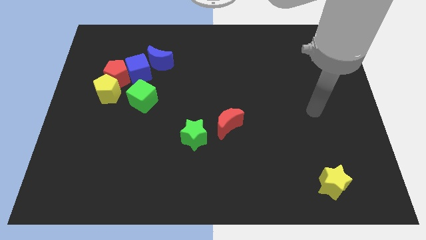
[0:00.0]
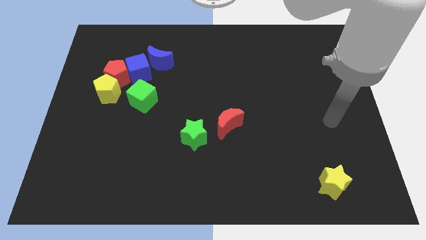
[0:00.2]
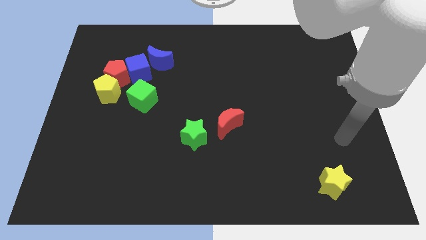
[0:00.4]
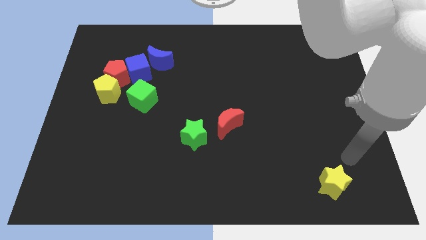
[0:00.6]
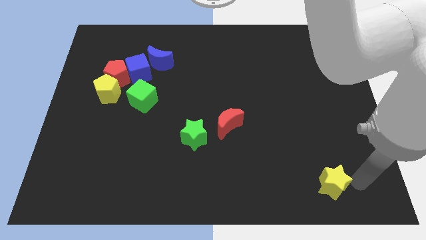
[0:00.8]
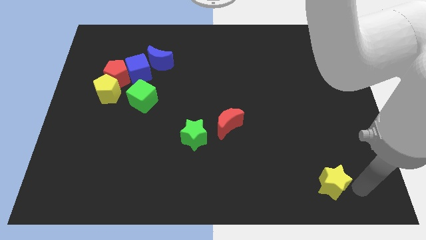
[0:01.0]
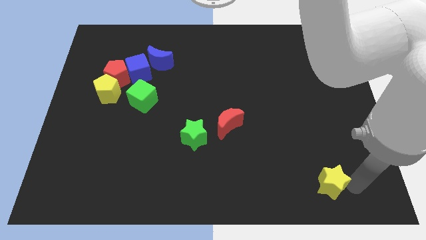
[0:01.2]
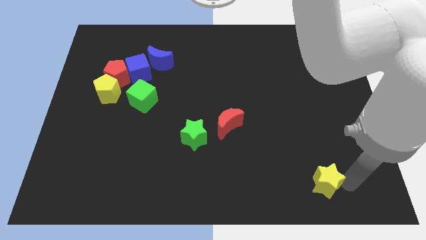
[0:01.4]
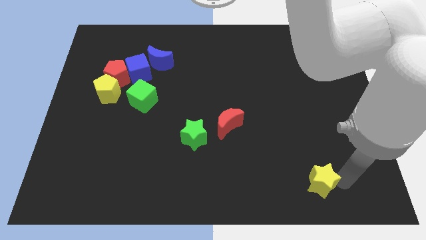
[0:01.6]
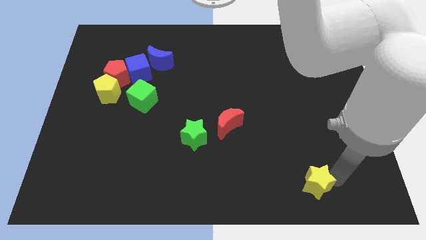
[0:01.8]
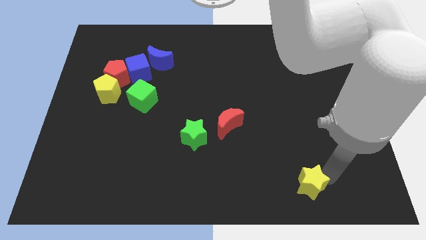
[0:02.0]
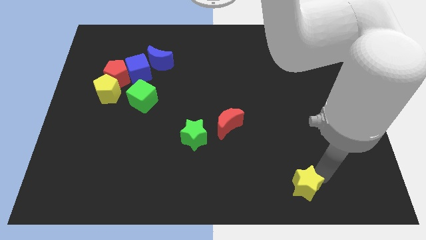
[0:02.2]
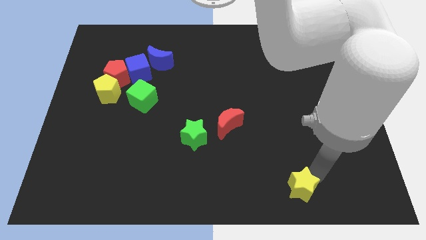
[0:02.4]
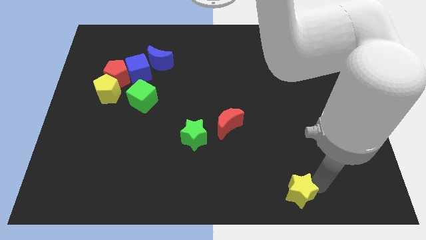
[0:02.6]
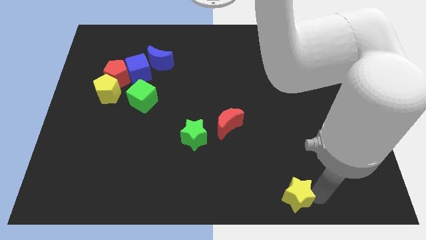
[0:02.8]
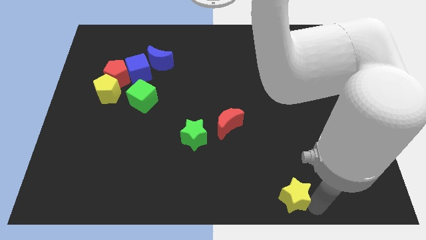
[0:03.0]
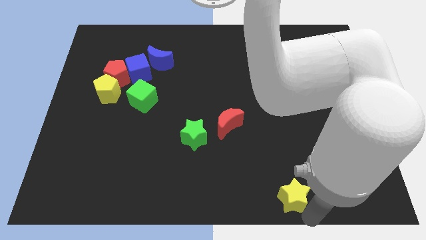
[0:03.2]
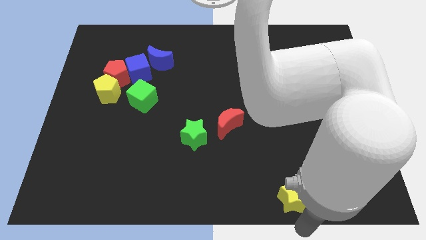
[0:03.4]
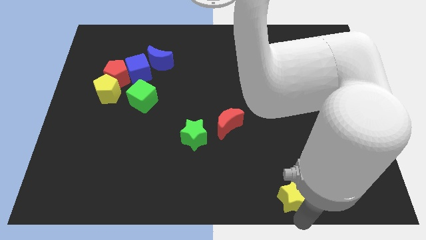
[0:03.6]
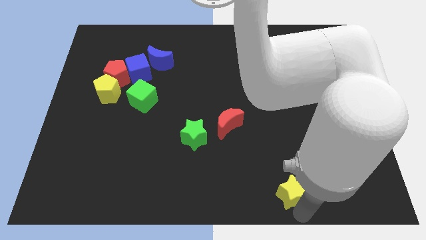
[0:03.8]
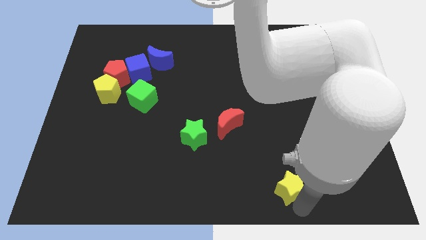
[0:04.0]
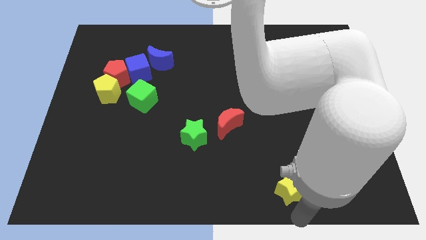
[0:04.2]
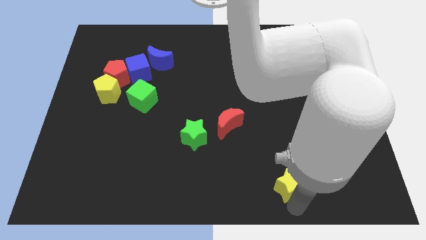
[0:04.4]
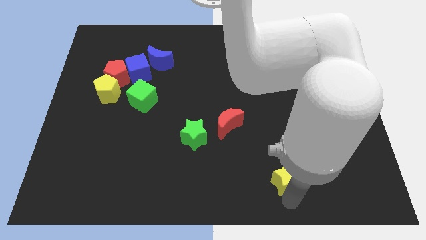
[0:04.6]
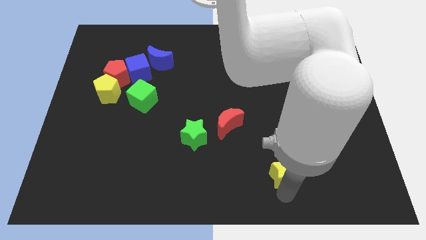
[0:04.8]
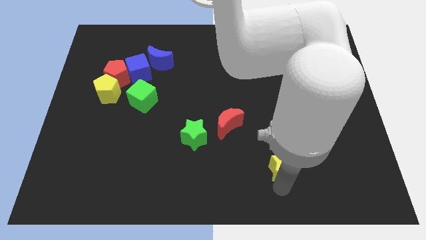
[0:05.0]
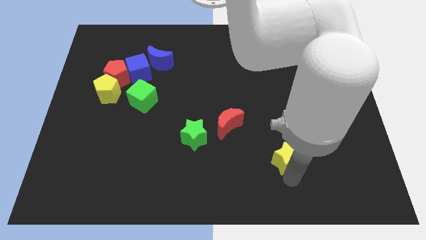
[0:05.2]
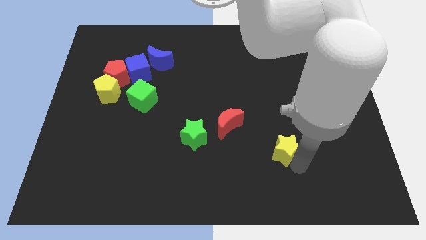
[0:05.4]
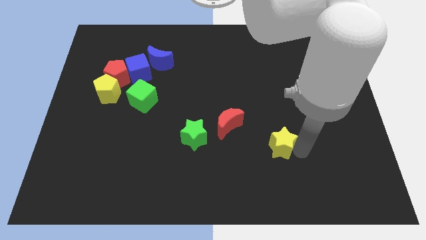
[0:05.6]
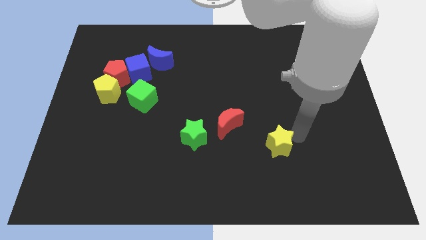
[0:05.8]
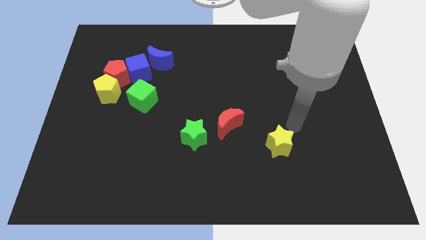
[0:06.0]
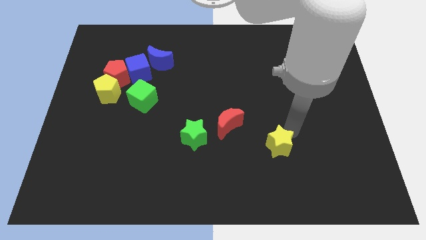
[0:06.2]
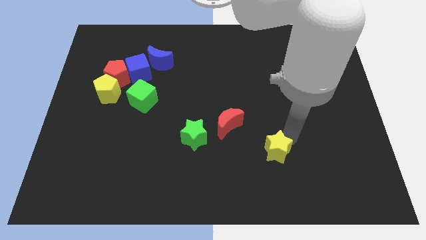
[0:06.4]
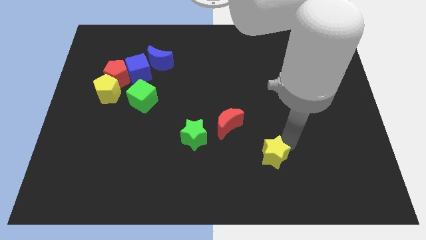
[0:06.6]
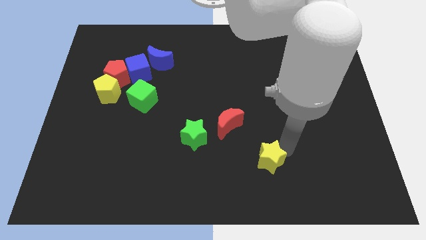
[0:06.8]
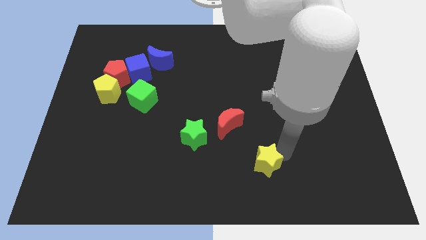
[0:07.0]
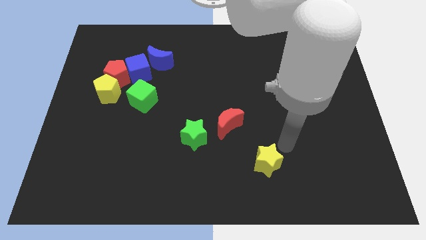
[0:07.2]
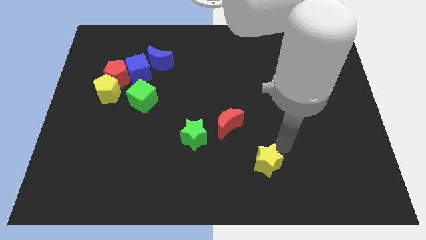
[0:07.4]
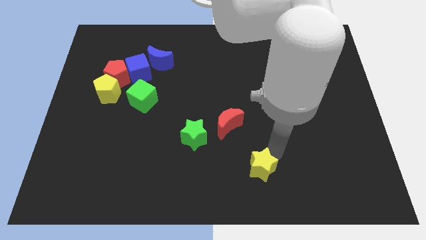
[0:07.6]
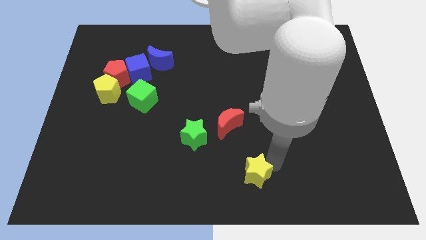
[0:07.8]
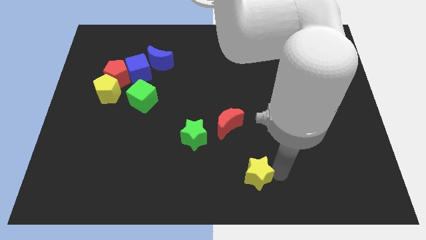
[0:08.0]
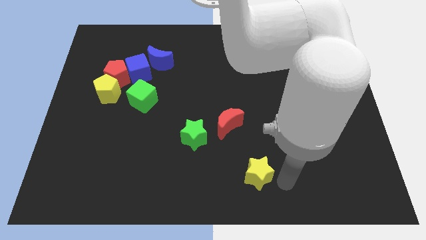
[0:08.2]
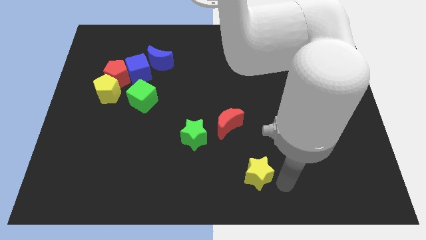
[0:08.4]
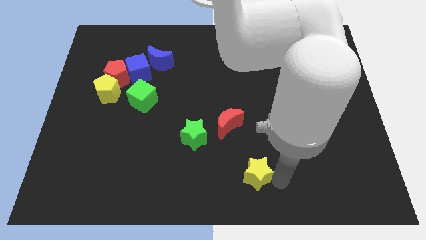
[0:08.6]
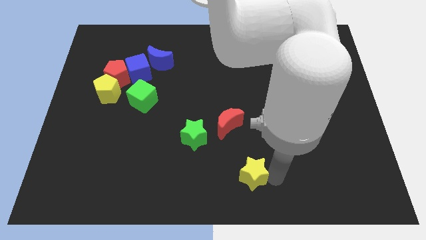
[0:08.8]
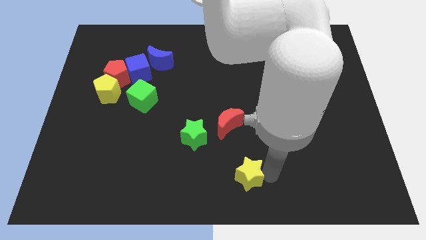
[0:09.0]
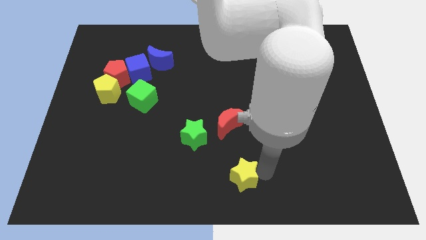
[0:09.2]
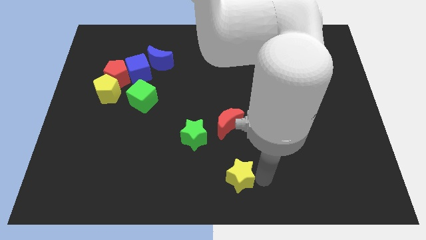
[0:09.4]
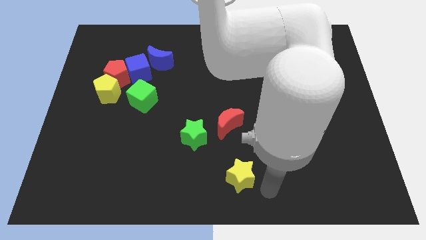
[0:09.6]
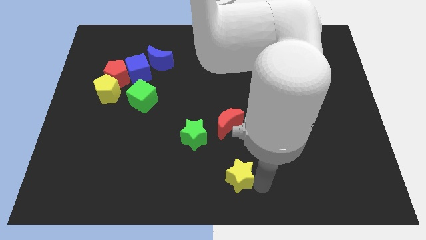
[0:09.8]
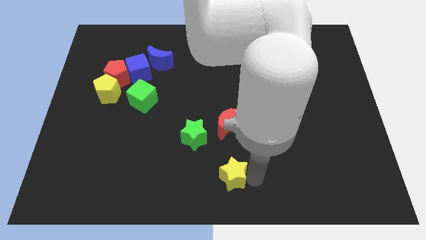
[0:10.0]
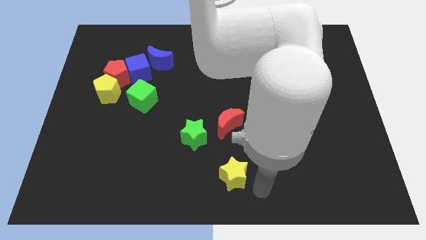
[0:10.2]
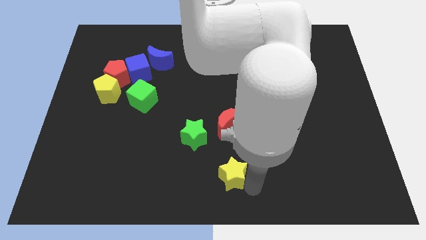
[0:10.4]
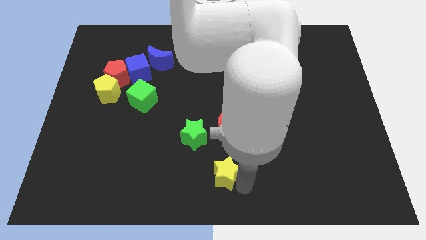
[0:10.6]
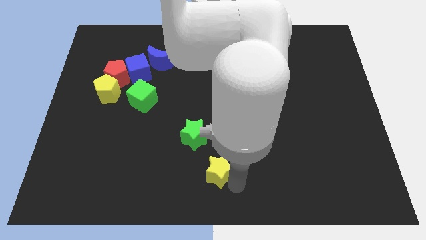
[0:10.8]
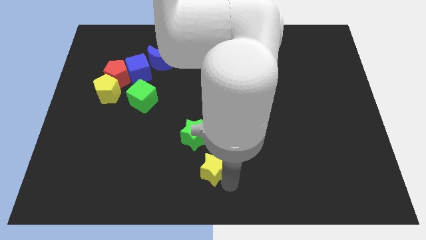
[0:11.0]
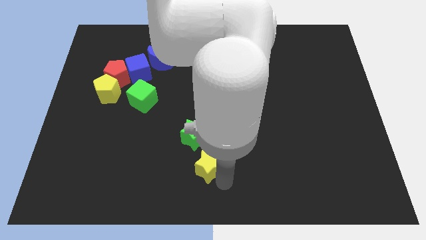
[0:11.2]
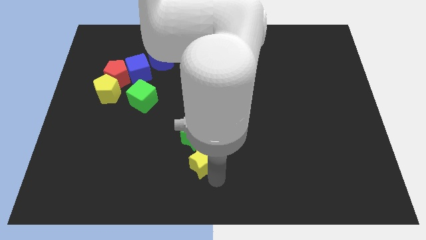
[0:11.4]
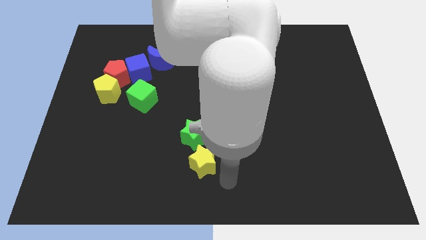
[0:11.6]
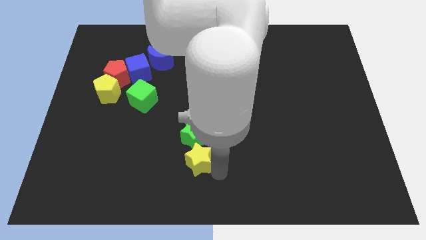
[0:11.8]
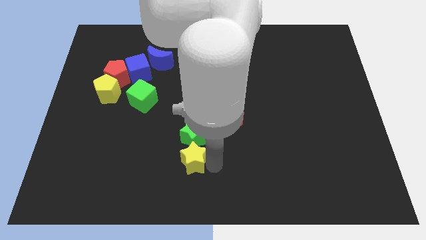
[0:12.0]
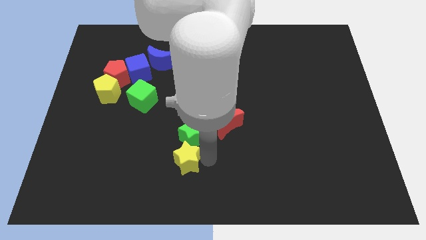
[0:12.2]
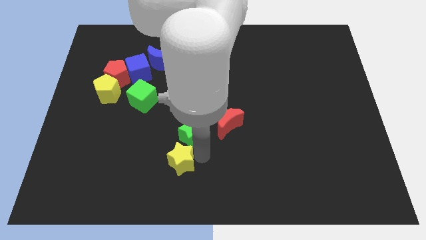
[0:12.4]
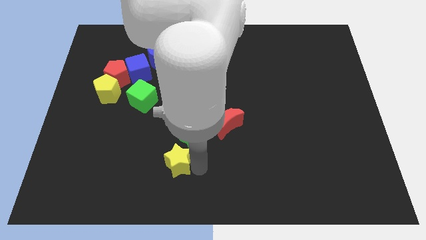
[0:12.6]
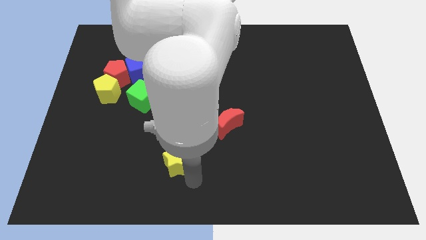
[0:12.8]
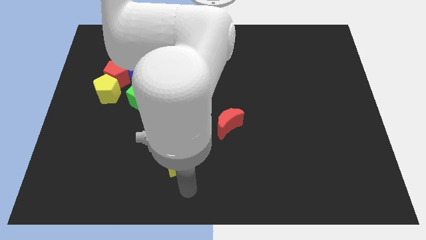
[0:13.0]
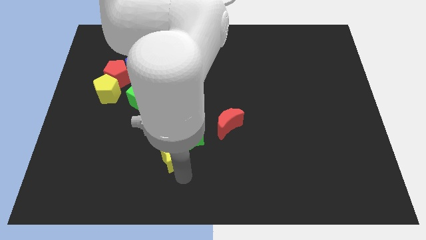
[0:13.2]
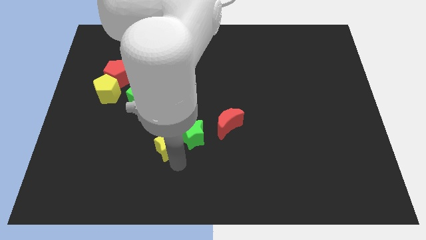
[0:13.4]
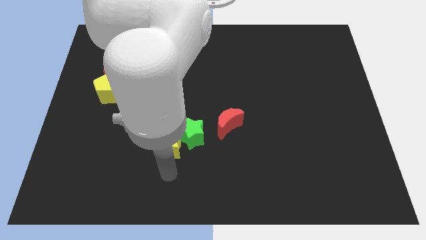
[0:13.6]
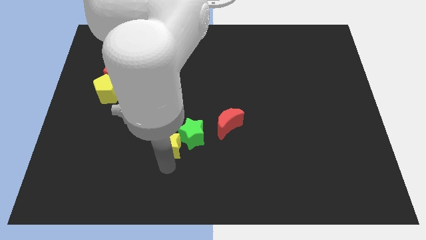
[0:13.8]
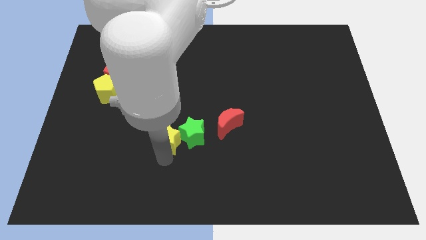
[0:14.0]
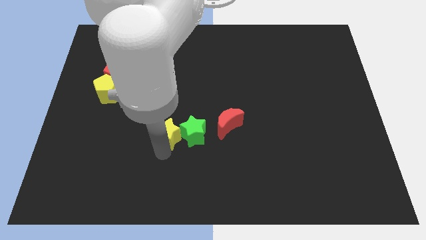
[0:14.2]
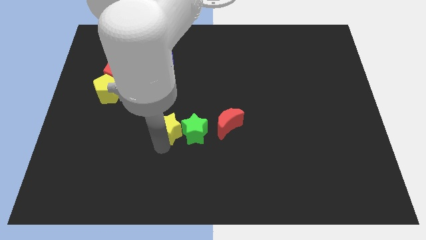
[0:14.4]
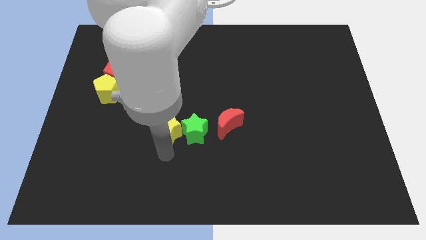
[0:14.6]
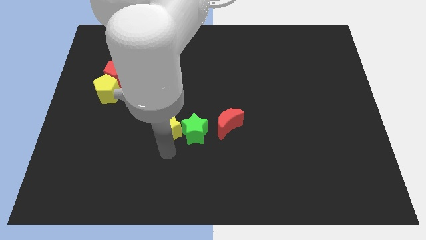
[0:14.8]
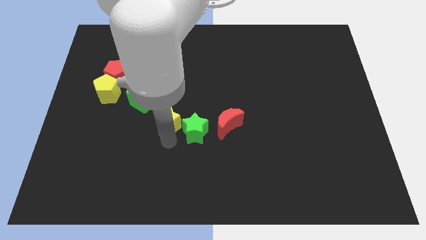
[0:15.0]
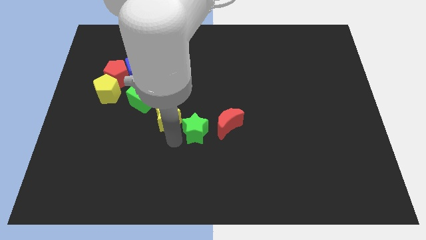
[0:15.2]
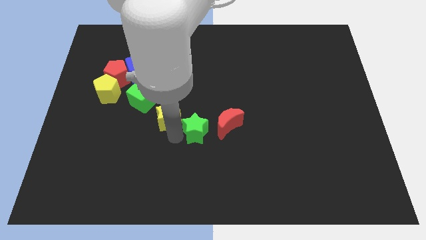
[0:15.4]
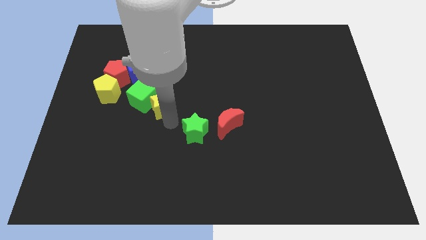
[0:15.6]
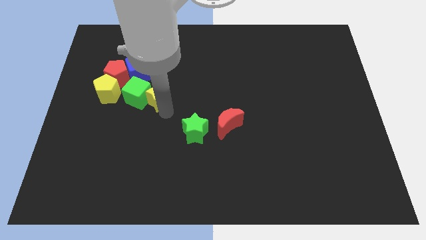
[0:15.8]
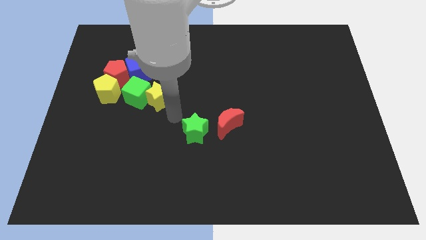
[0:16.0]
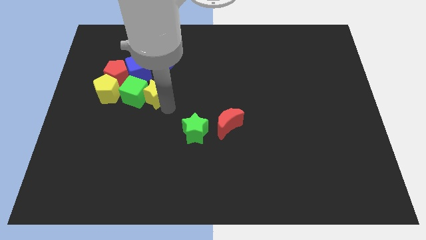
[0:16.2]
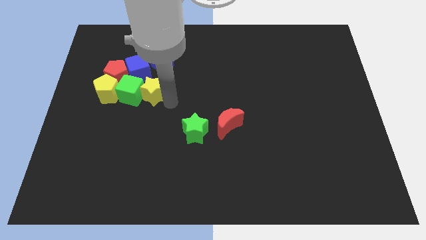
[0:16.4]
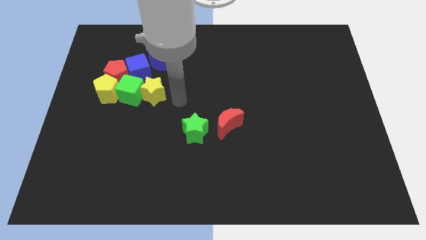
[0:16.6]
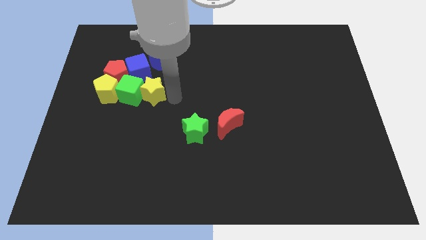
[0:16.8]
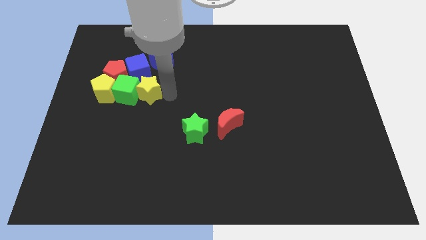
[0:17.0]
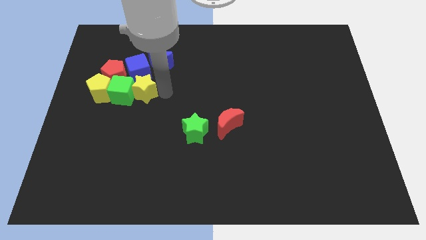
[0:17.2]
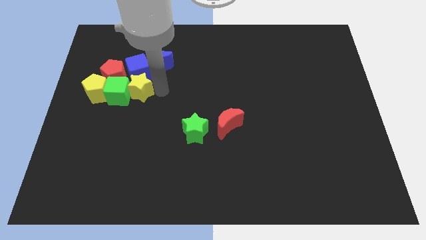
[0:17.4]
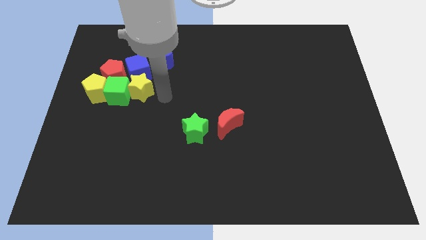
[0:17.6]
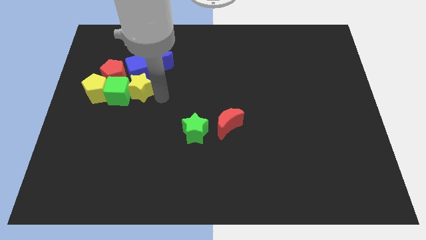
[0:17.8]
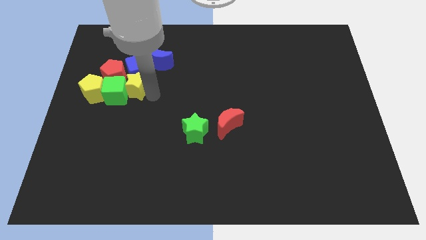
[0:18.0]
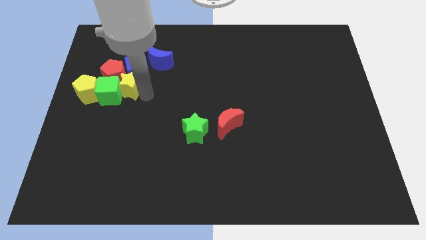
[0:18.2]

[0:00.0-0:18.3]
move the yellow star next to the red pentagon
